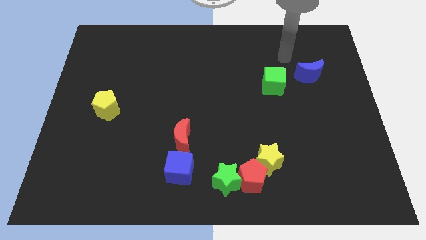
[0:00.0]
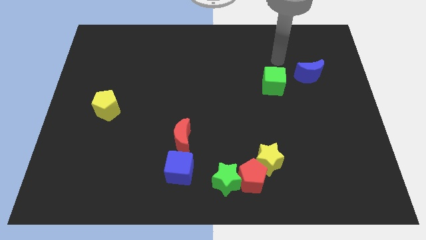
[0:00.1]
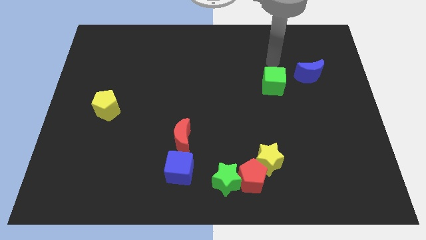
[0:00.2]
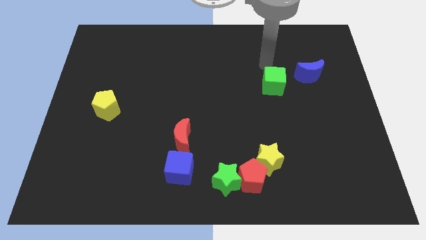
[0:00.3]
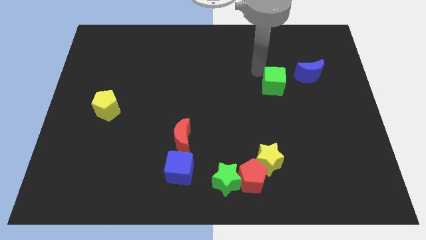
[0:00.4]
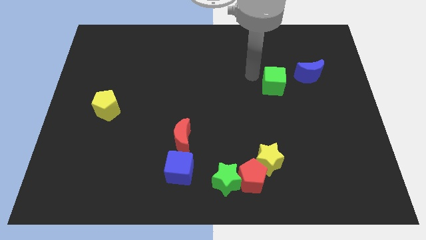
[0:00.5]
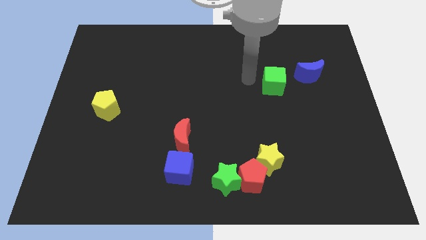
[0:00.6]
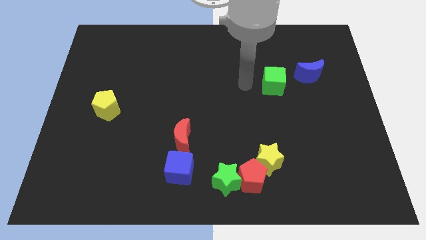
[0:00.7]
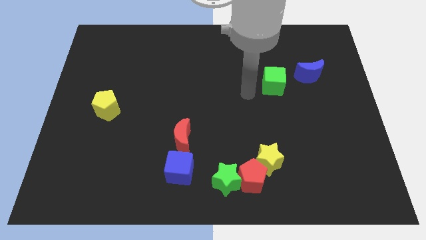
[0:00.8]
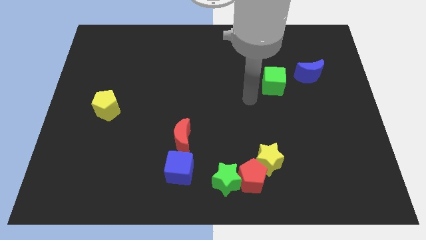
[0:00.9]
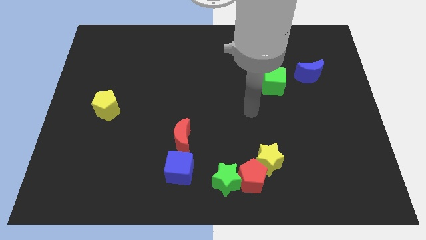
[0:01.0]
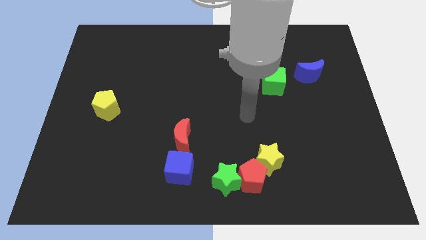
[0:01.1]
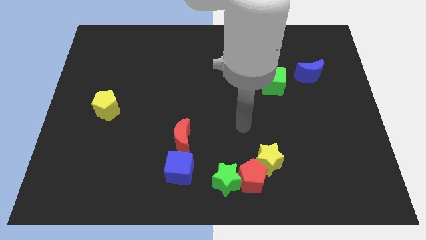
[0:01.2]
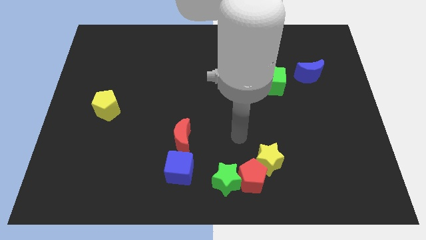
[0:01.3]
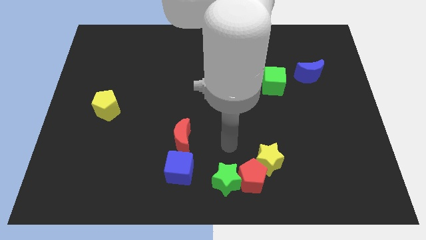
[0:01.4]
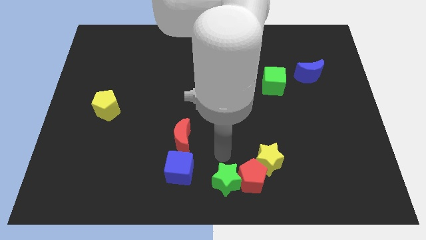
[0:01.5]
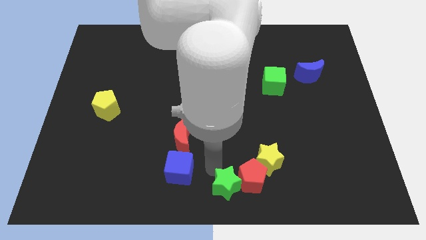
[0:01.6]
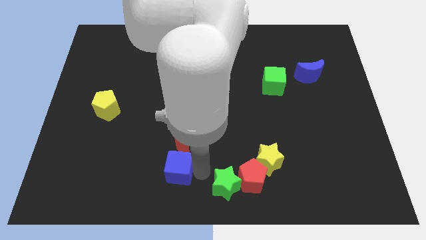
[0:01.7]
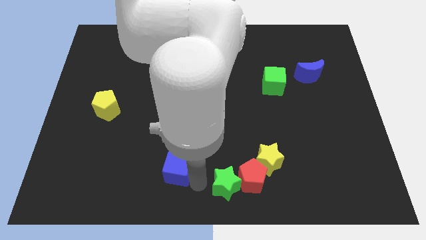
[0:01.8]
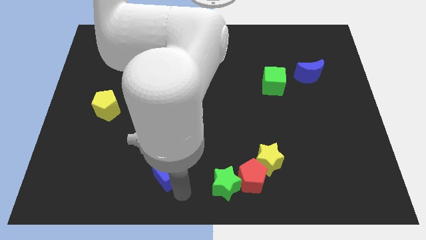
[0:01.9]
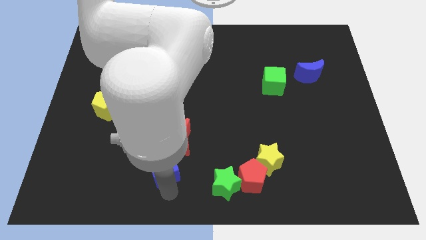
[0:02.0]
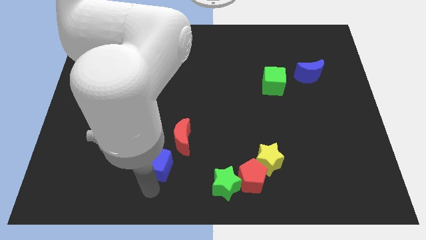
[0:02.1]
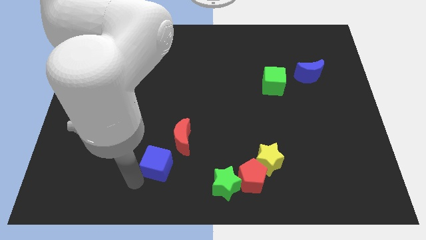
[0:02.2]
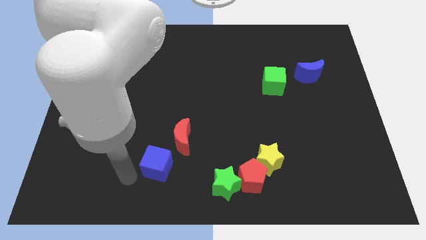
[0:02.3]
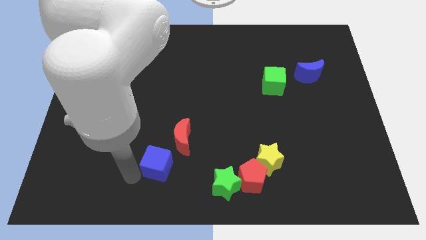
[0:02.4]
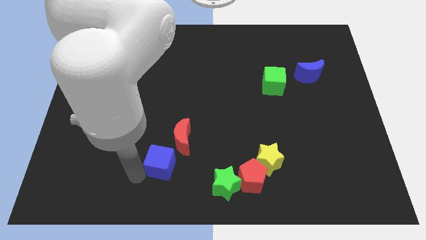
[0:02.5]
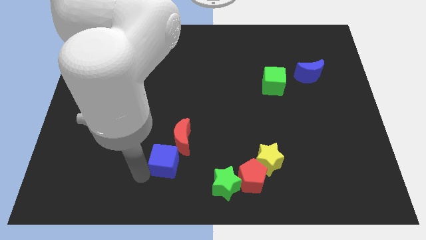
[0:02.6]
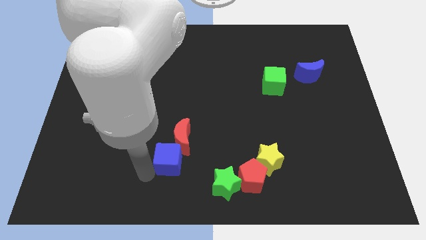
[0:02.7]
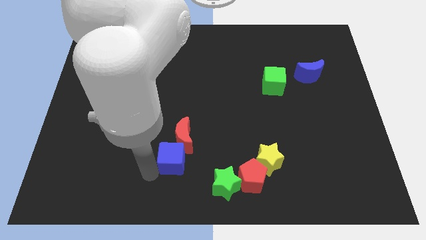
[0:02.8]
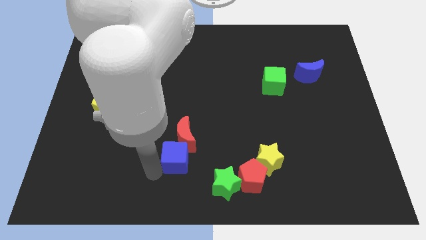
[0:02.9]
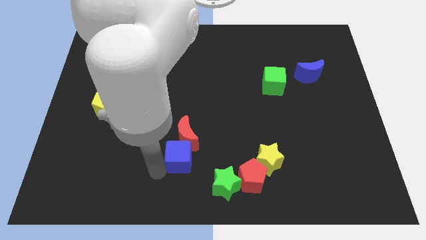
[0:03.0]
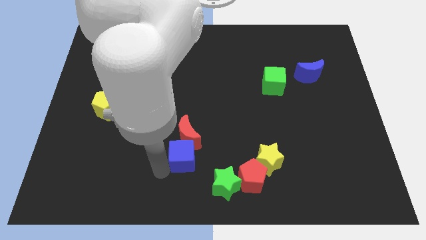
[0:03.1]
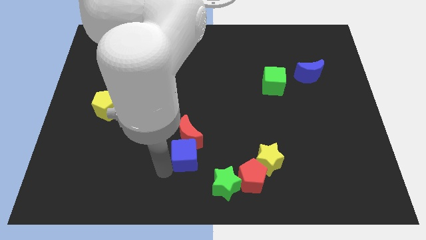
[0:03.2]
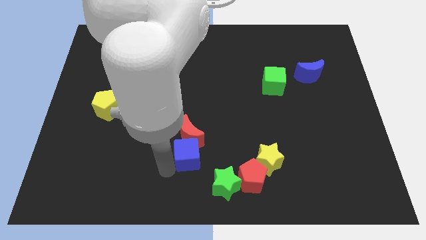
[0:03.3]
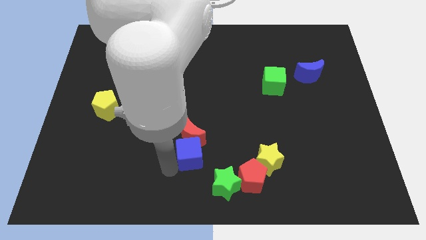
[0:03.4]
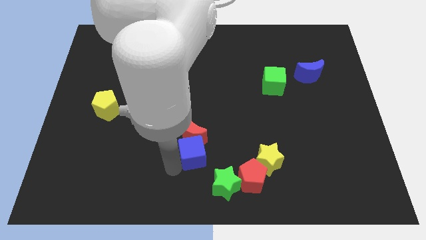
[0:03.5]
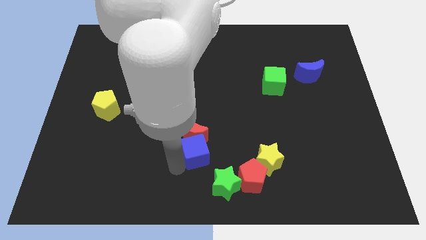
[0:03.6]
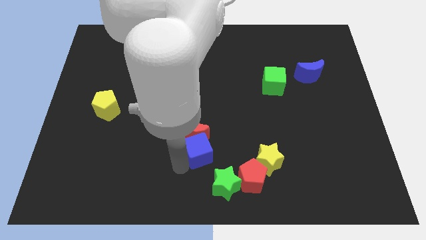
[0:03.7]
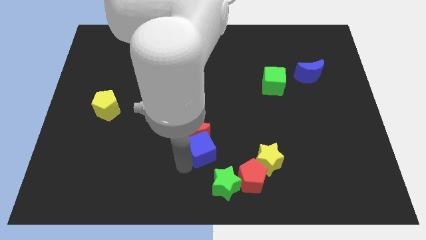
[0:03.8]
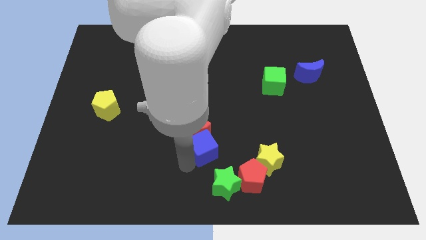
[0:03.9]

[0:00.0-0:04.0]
slightly push the blue cube diagonally upwards and to the right

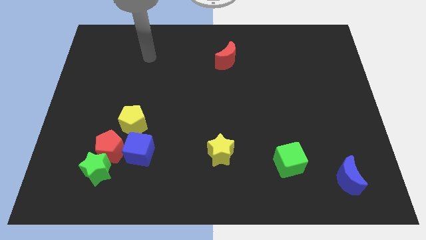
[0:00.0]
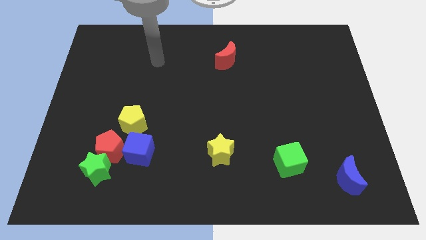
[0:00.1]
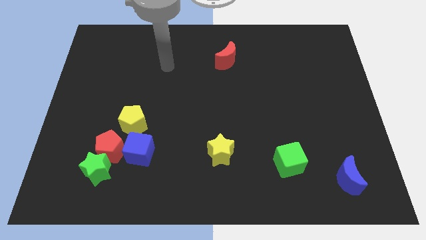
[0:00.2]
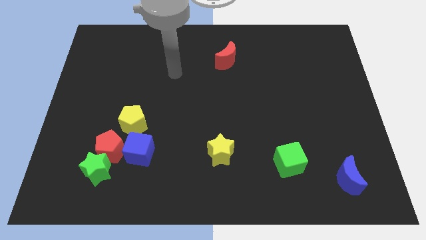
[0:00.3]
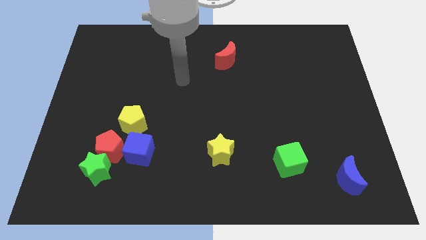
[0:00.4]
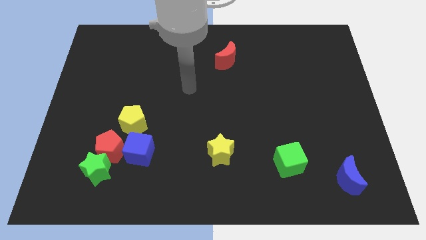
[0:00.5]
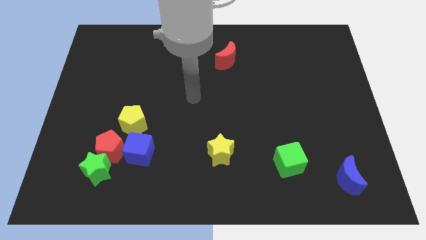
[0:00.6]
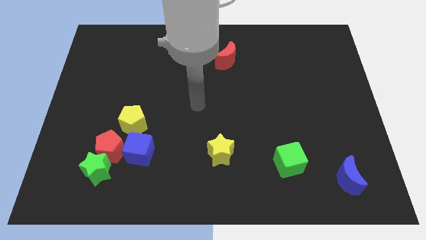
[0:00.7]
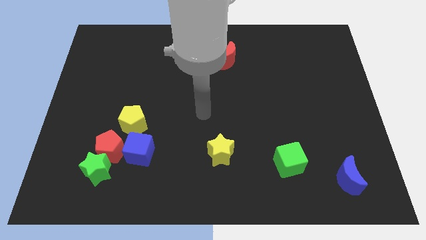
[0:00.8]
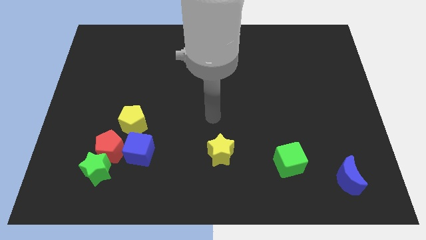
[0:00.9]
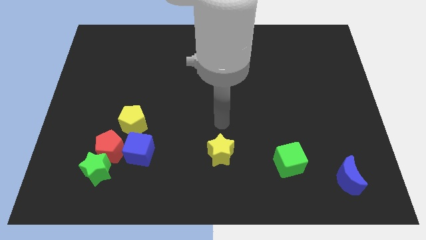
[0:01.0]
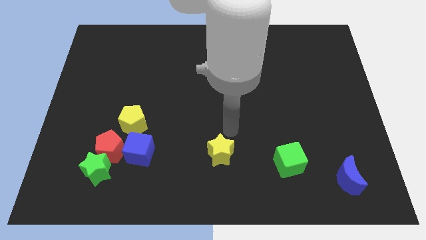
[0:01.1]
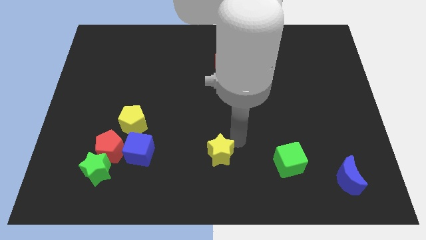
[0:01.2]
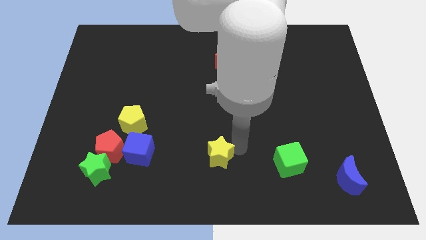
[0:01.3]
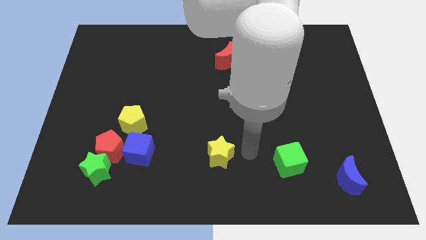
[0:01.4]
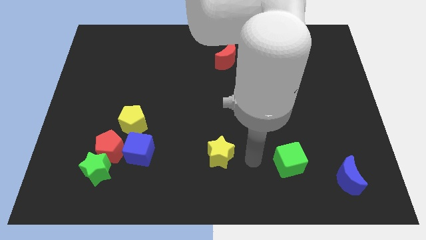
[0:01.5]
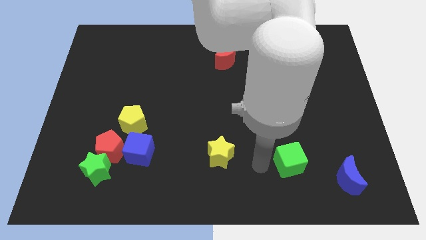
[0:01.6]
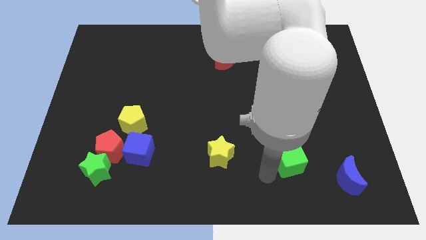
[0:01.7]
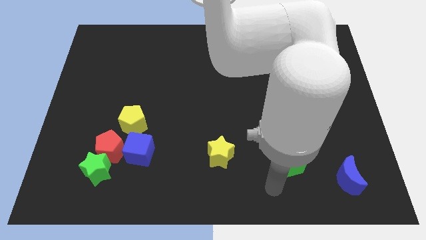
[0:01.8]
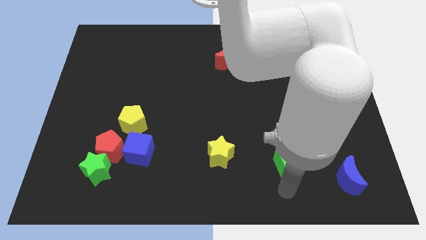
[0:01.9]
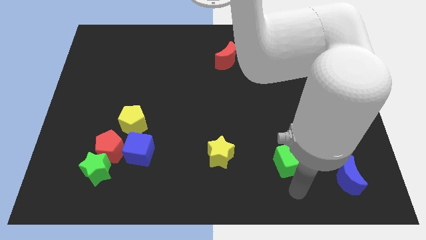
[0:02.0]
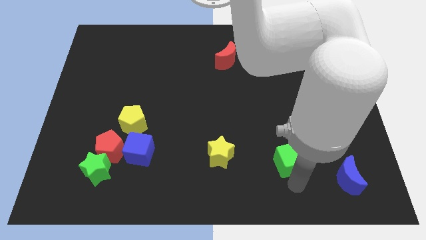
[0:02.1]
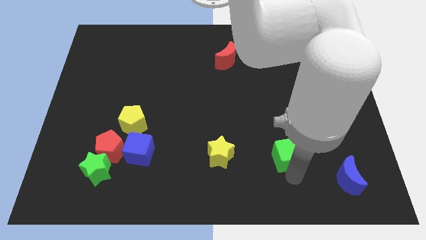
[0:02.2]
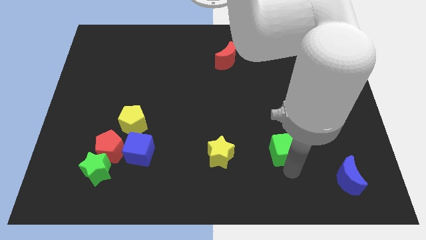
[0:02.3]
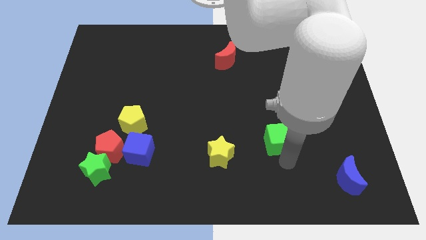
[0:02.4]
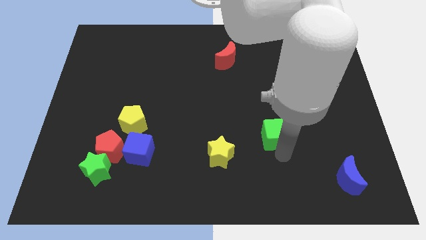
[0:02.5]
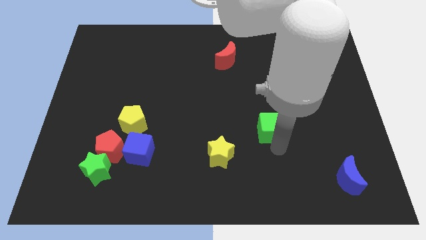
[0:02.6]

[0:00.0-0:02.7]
slightly slide the green cube upwards

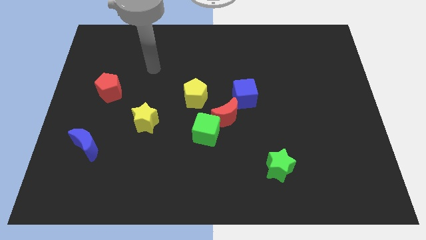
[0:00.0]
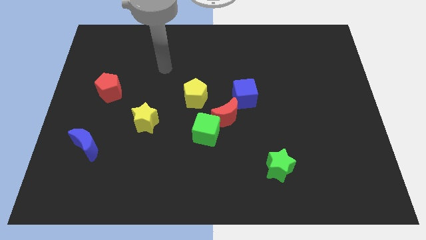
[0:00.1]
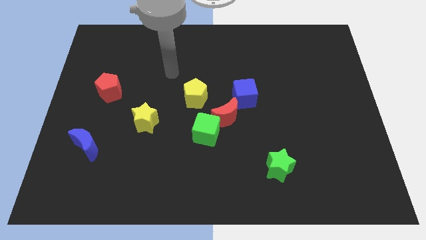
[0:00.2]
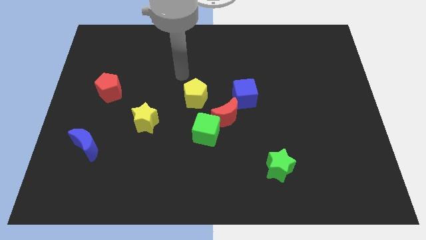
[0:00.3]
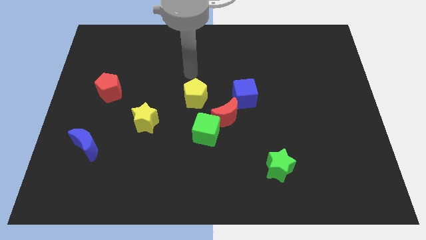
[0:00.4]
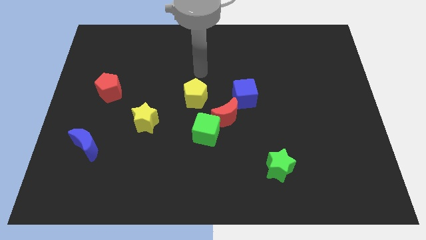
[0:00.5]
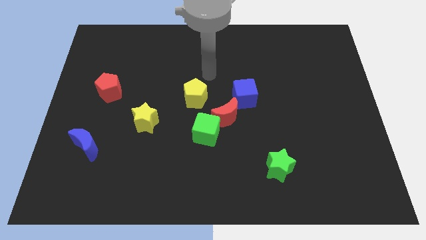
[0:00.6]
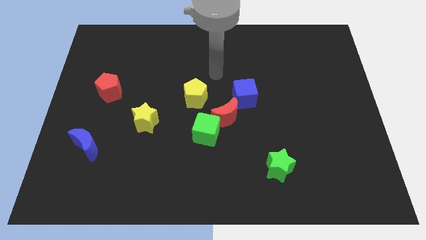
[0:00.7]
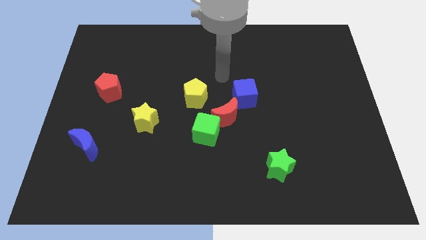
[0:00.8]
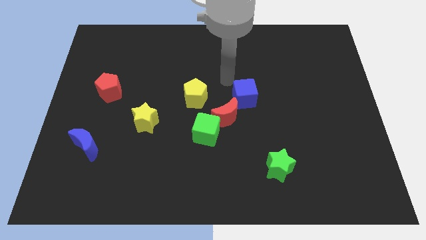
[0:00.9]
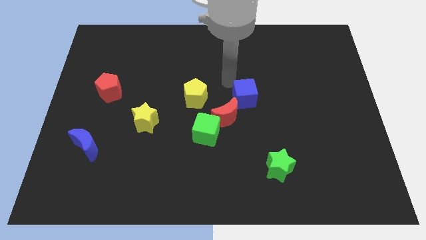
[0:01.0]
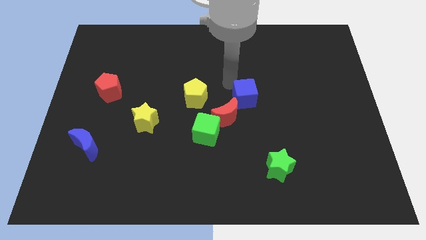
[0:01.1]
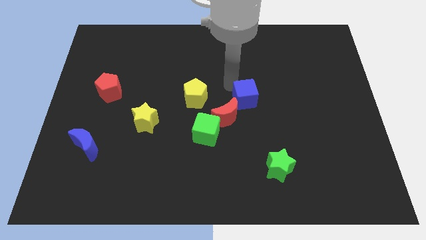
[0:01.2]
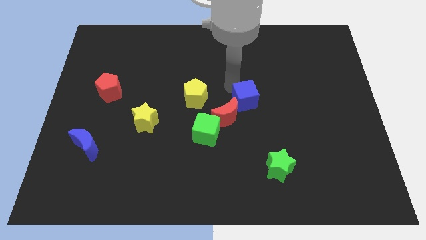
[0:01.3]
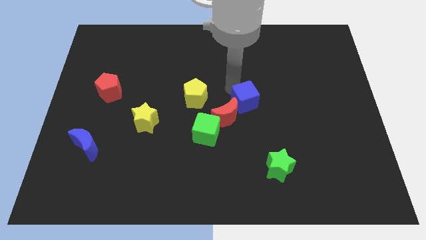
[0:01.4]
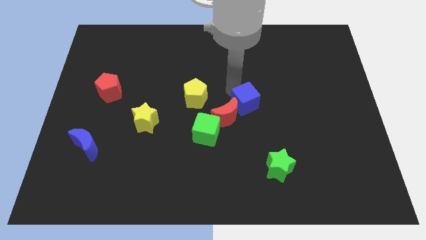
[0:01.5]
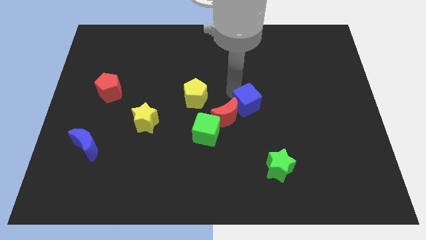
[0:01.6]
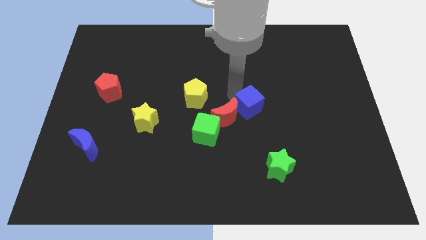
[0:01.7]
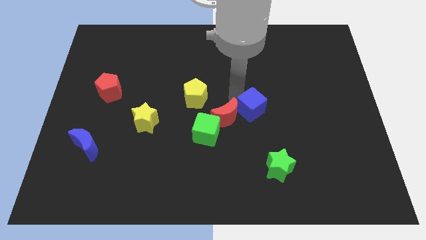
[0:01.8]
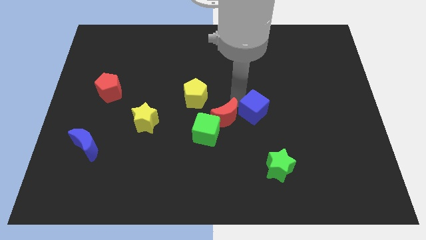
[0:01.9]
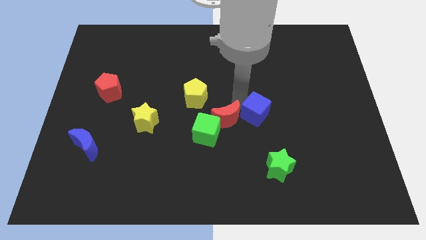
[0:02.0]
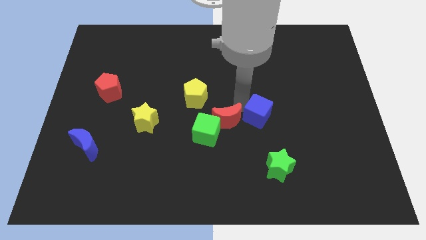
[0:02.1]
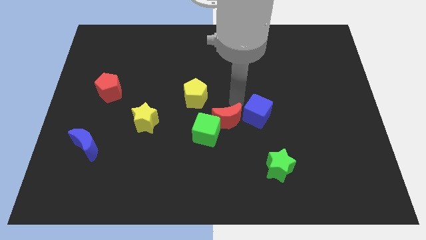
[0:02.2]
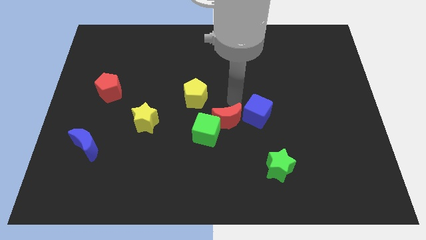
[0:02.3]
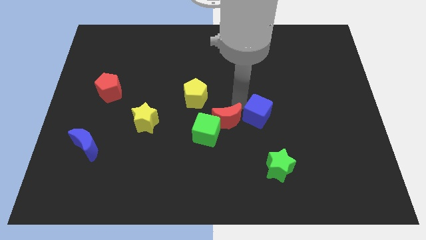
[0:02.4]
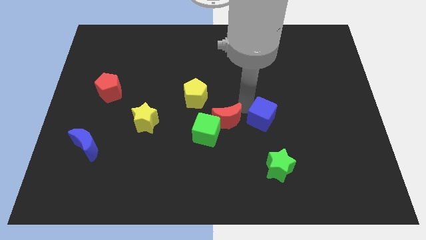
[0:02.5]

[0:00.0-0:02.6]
slightly move the blue cube down and then right
